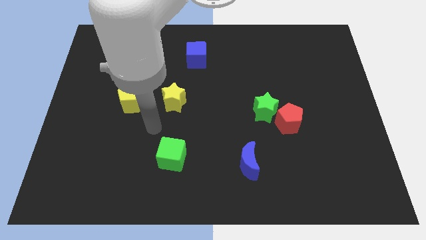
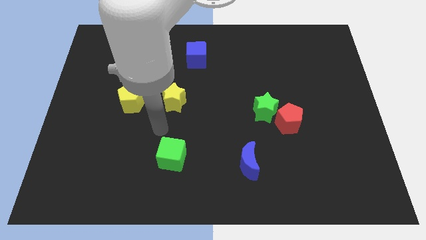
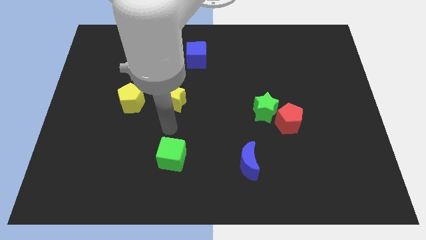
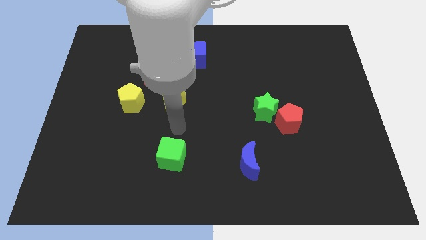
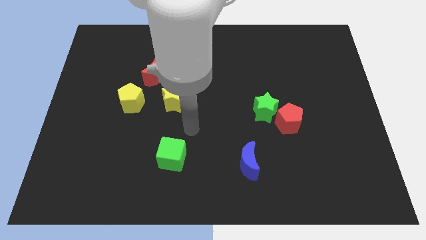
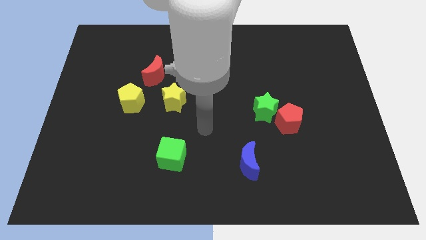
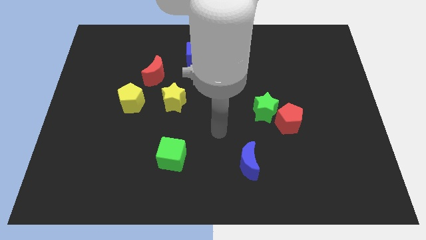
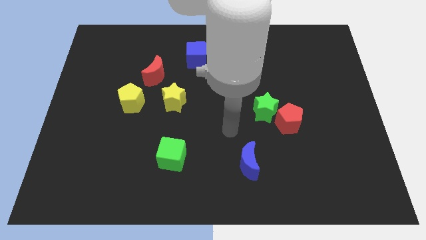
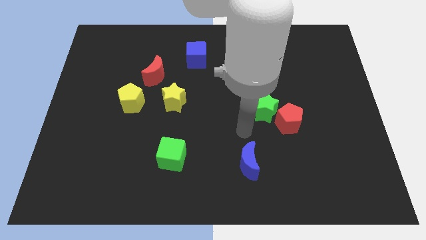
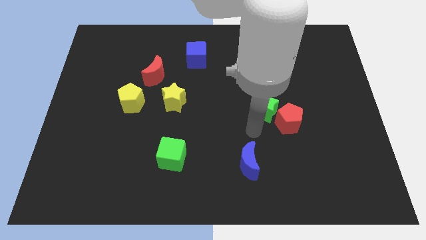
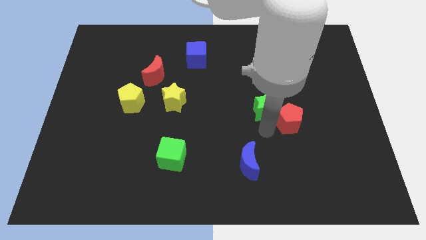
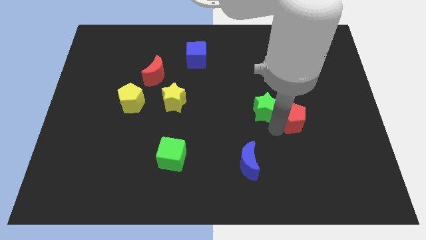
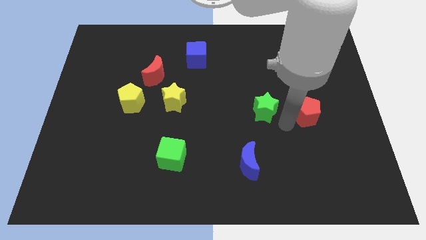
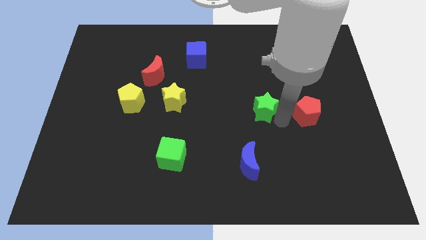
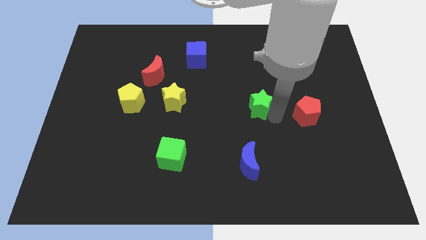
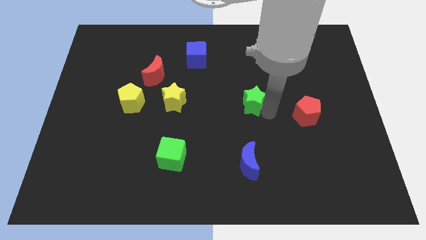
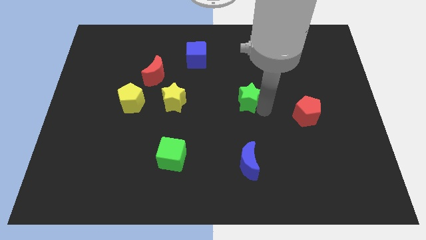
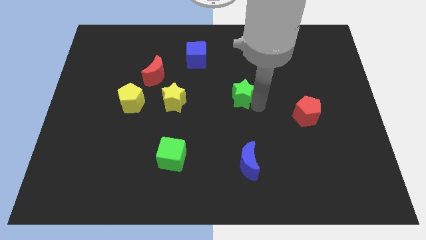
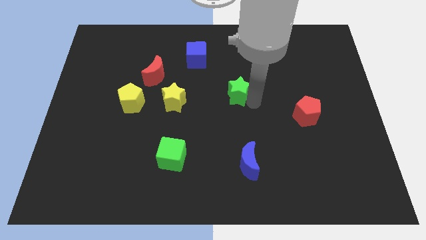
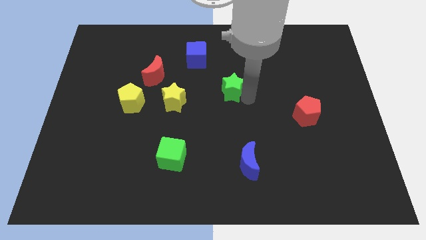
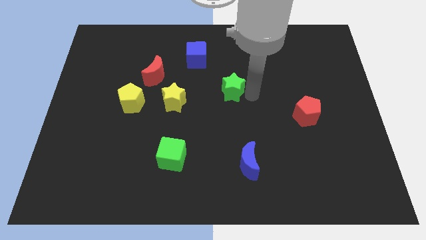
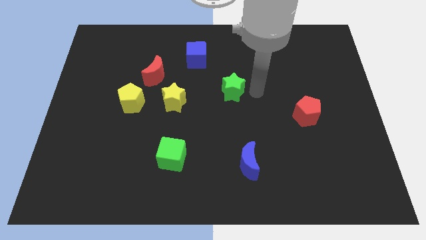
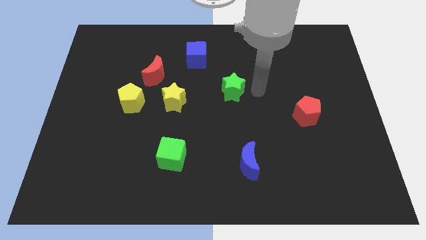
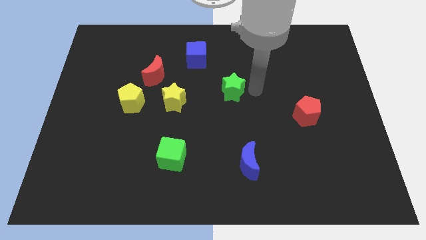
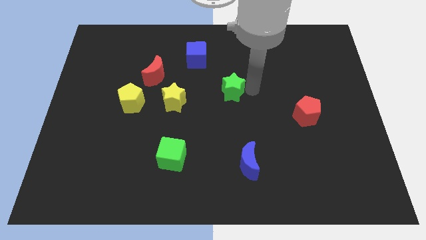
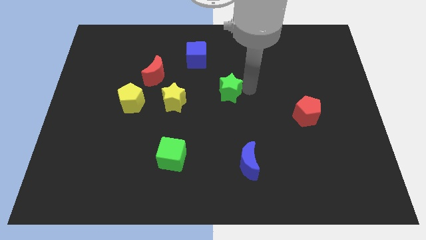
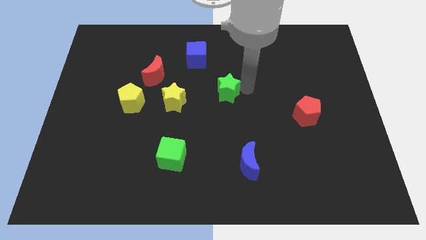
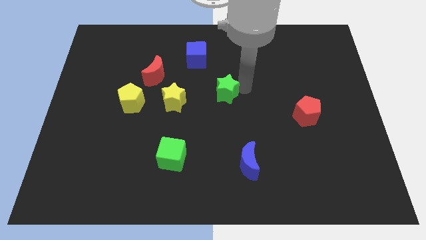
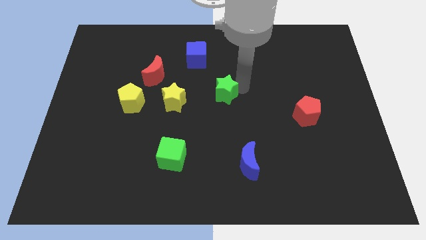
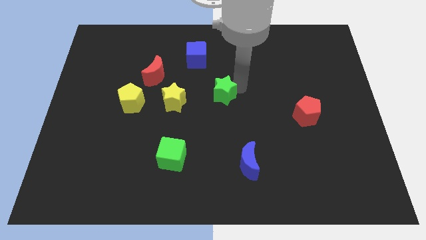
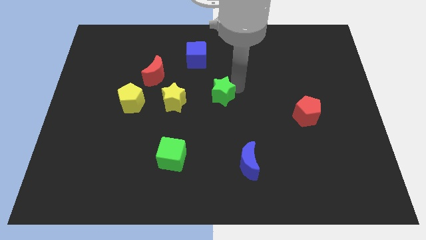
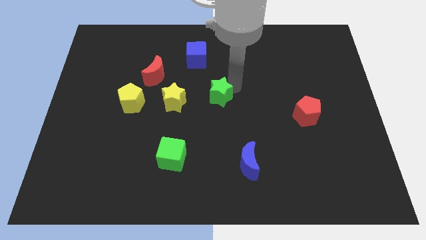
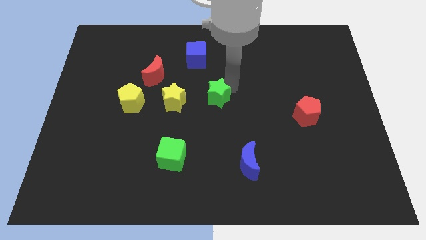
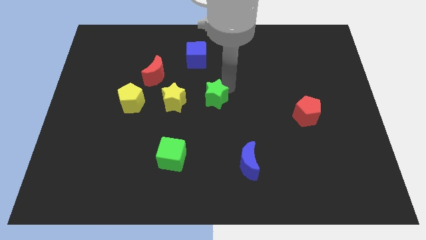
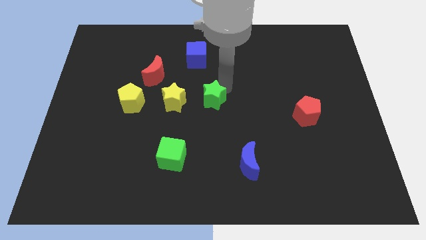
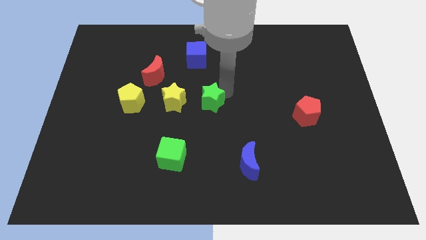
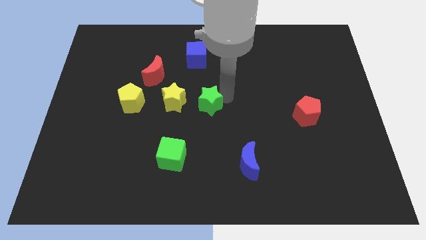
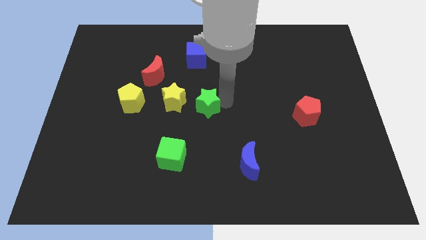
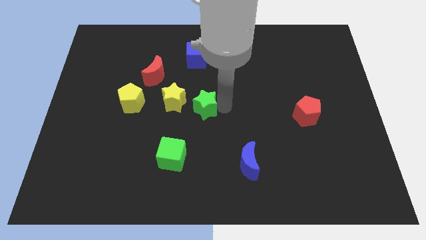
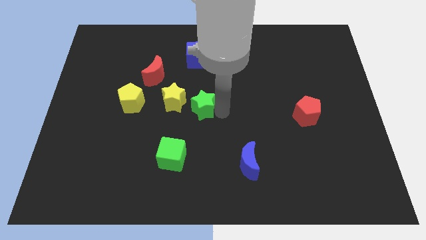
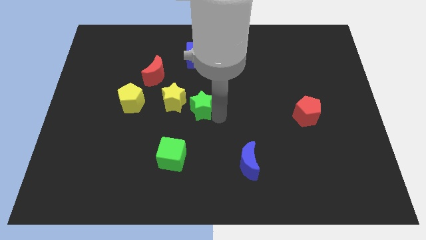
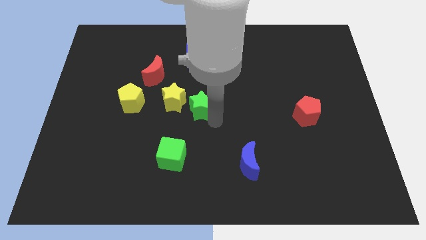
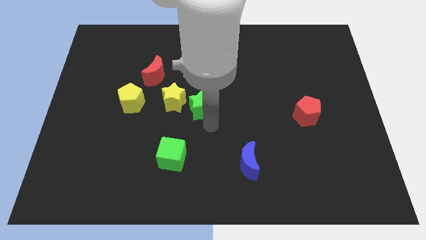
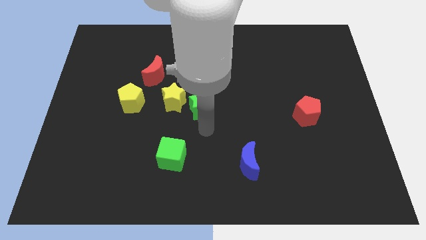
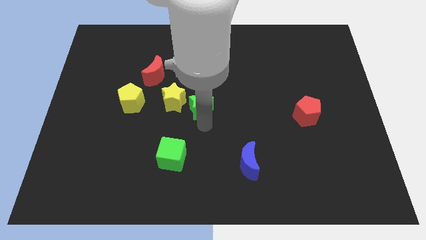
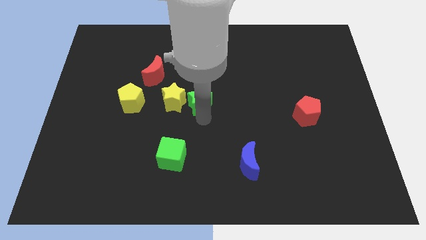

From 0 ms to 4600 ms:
push the green star to the top right side of the yellow star

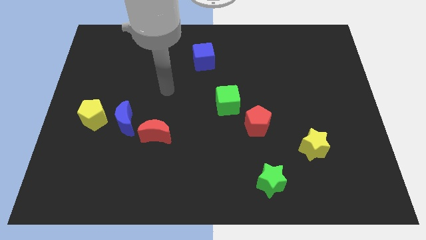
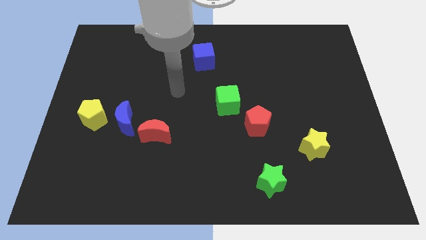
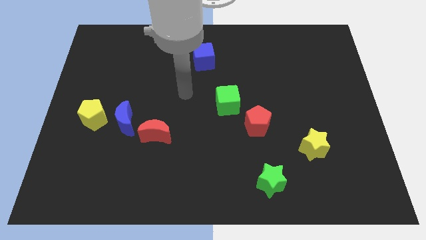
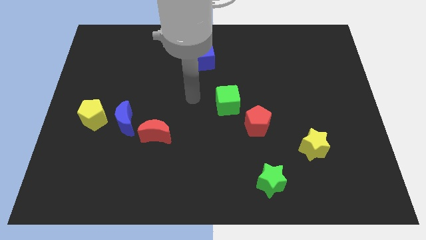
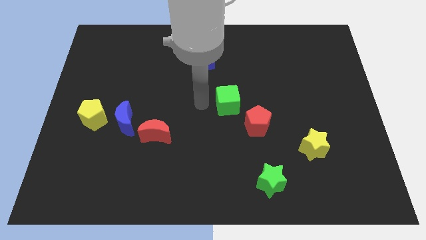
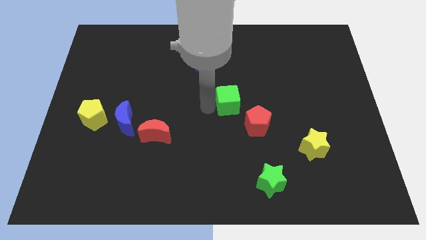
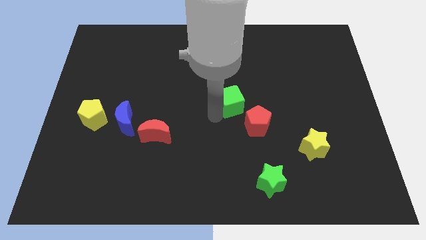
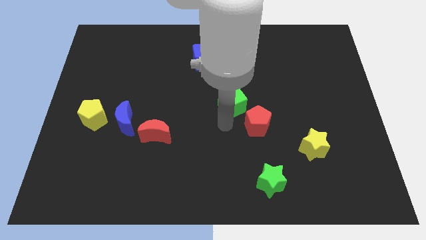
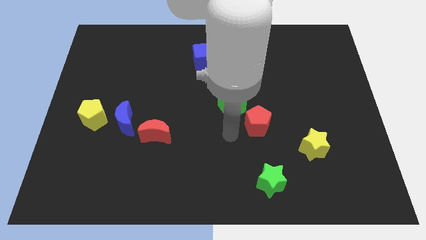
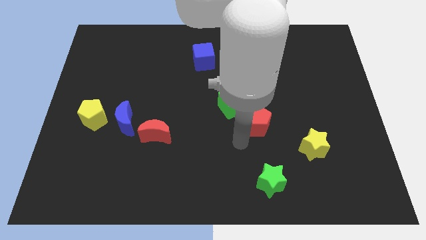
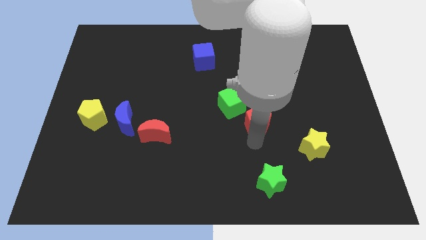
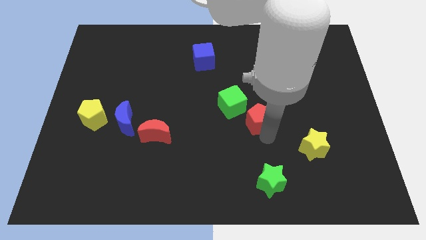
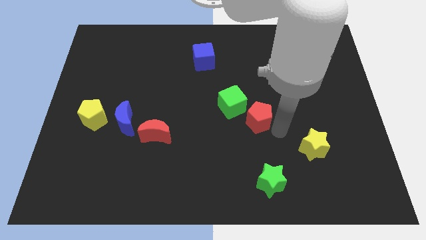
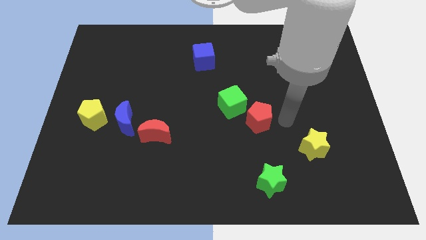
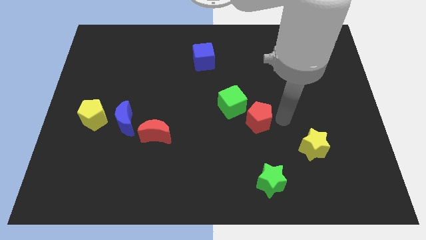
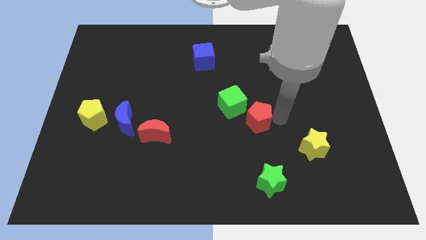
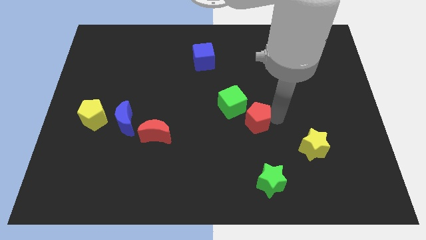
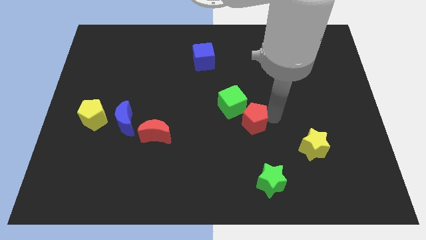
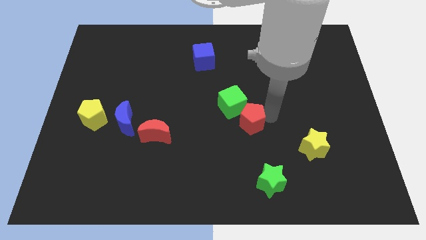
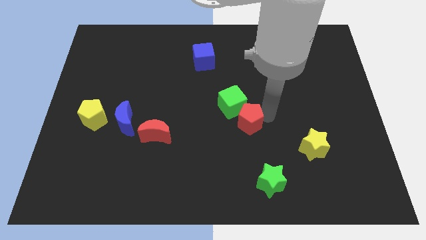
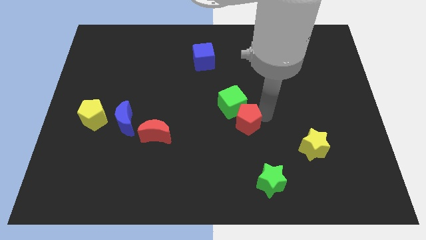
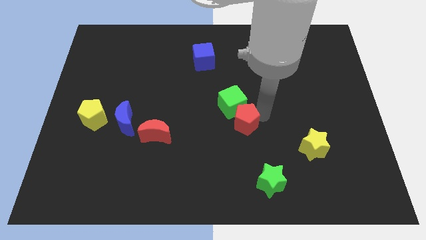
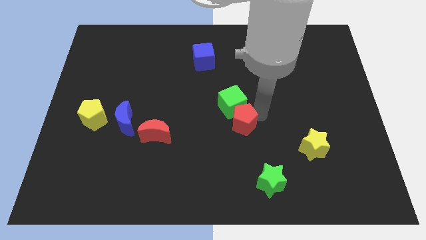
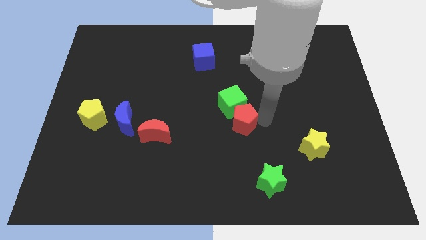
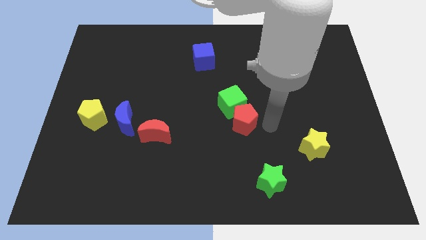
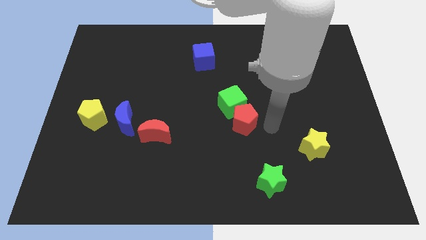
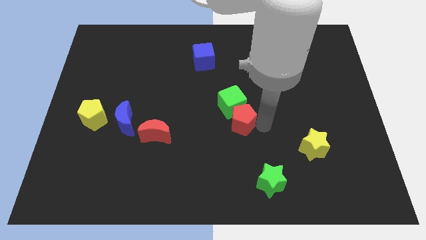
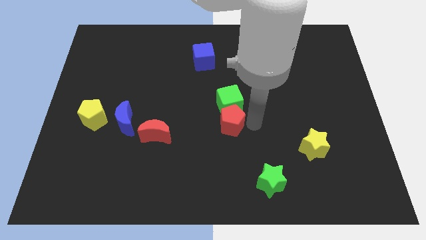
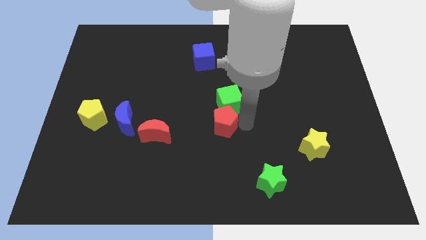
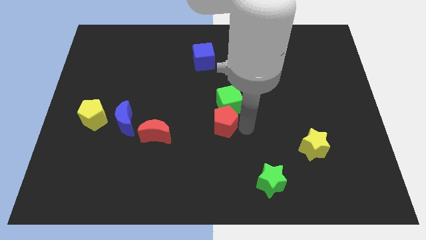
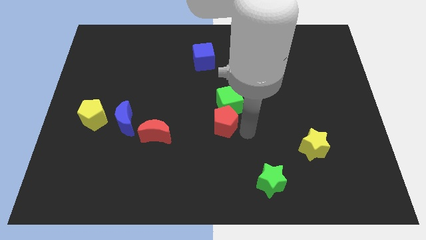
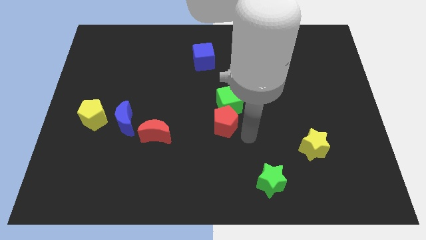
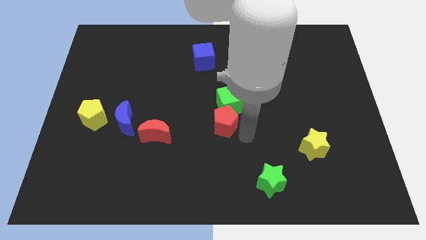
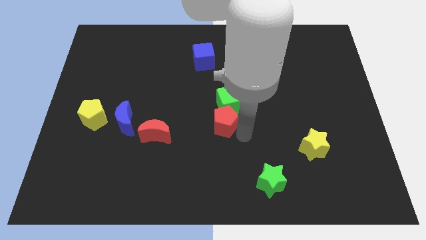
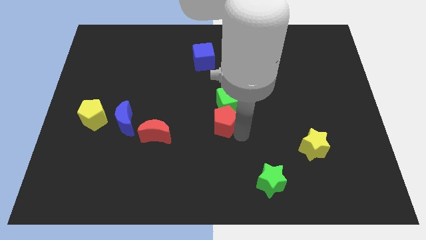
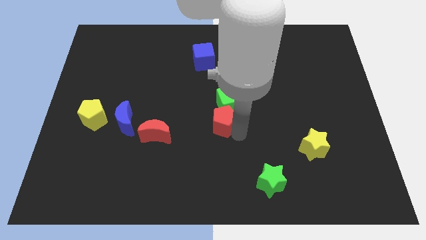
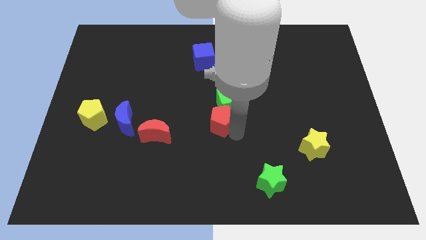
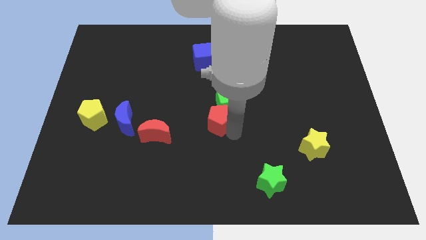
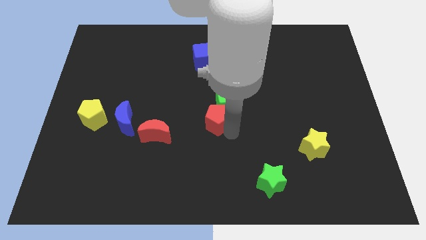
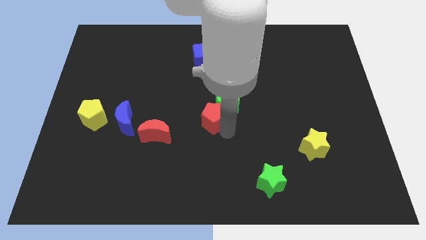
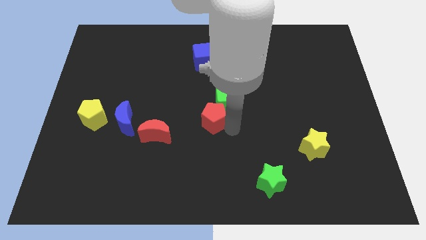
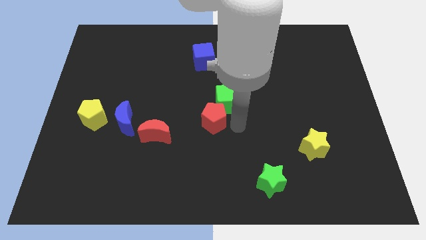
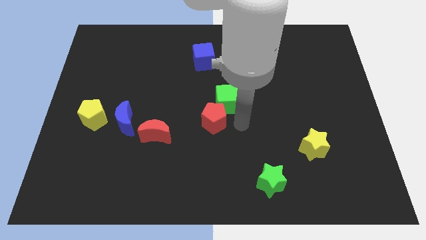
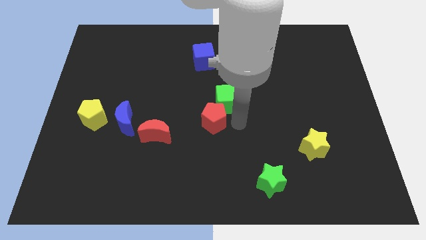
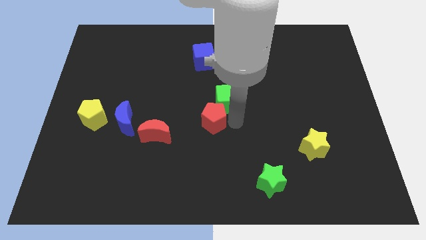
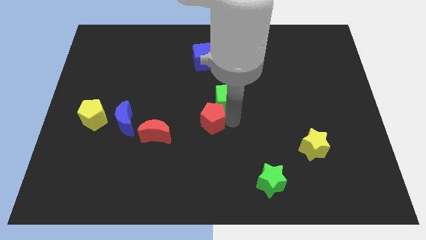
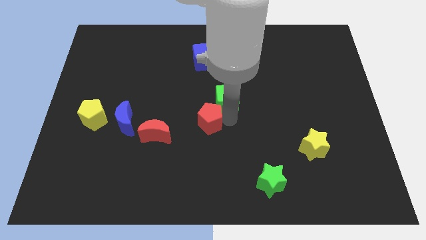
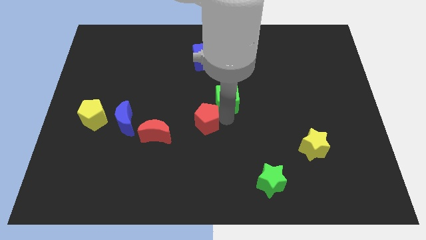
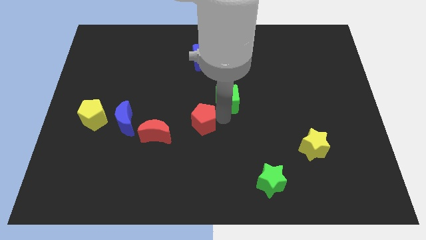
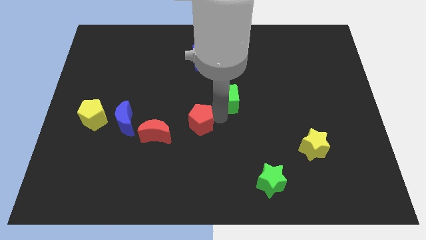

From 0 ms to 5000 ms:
slide the red pentagon diagonally up and to the right of the red moon
